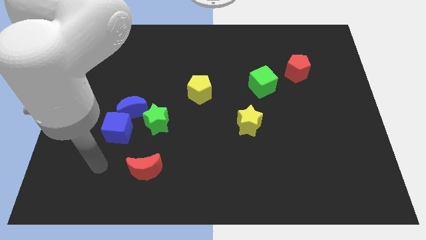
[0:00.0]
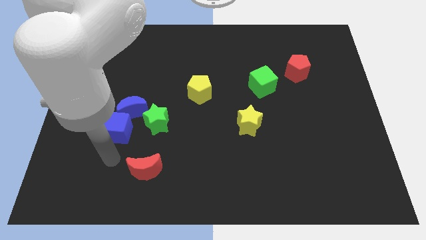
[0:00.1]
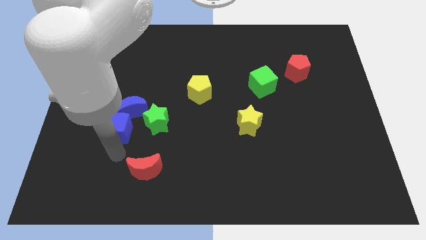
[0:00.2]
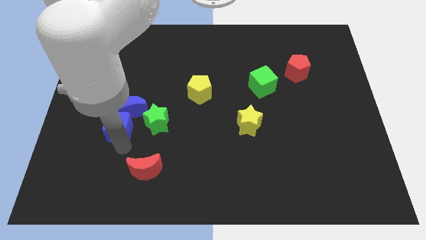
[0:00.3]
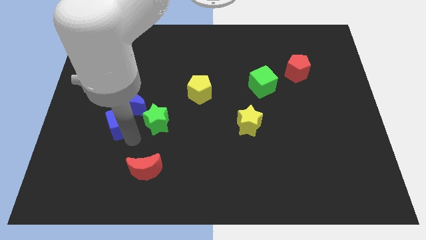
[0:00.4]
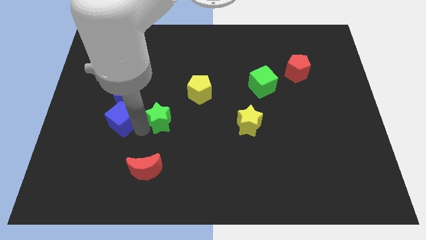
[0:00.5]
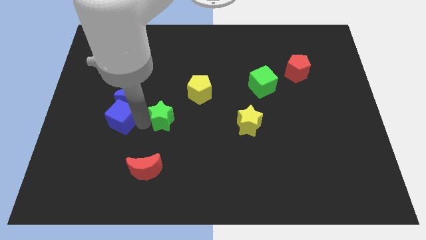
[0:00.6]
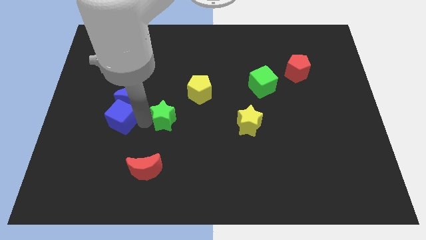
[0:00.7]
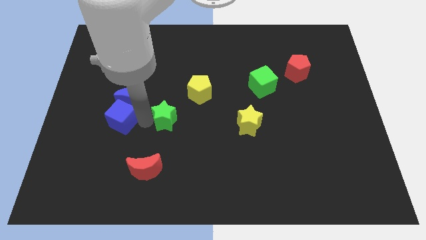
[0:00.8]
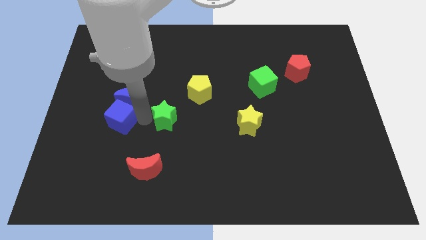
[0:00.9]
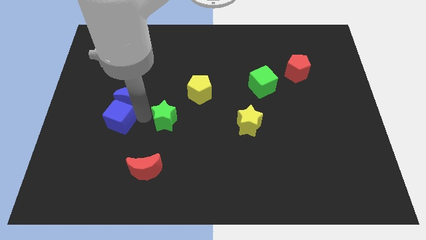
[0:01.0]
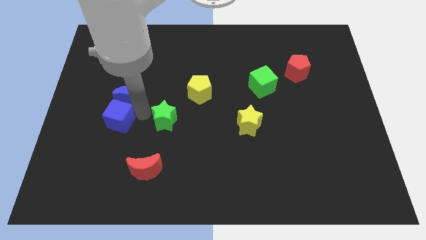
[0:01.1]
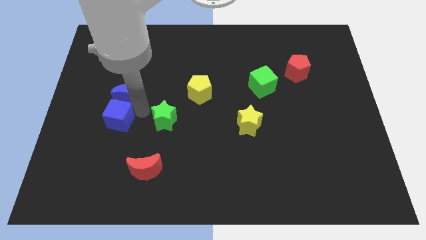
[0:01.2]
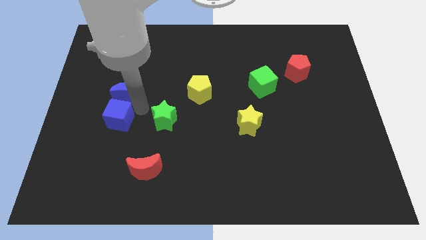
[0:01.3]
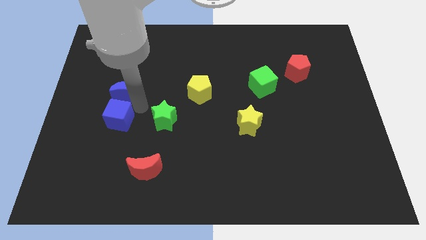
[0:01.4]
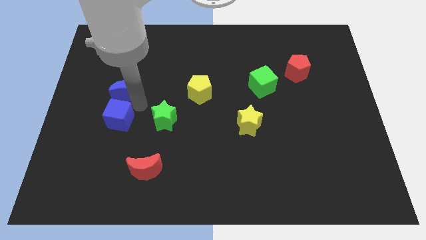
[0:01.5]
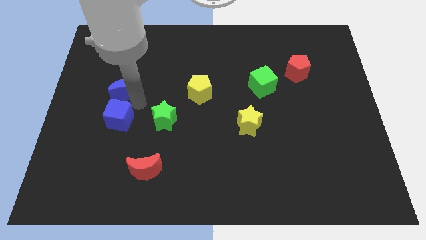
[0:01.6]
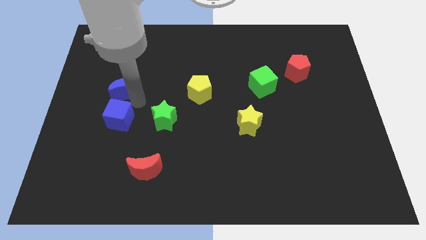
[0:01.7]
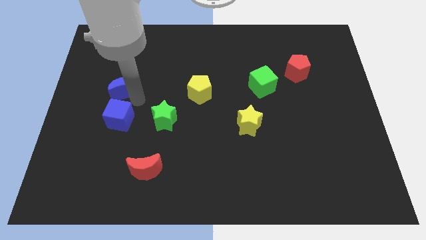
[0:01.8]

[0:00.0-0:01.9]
pull the blue moon apart from the blue cube and green star

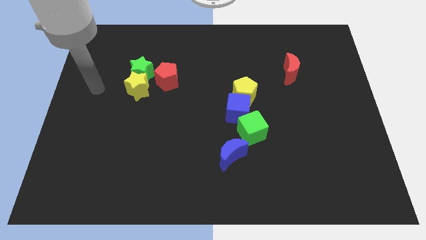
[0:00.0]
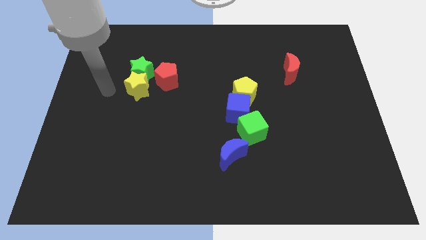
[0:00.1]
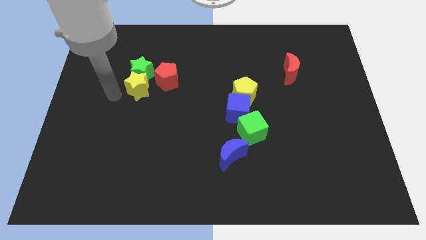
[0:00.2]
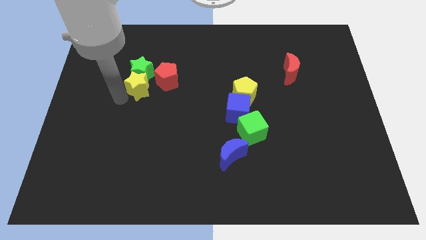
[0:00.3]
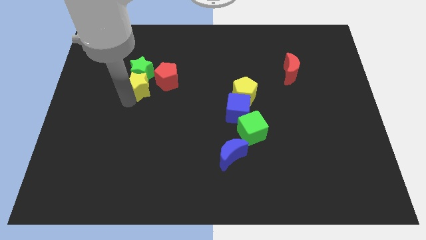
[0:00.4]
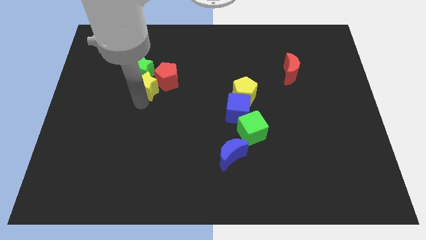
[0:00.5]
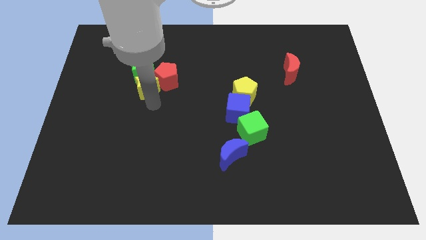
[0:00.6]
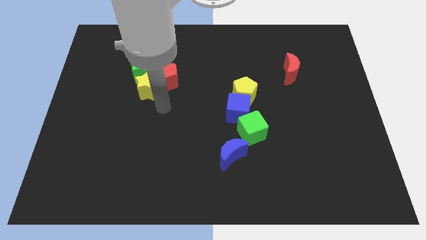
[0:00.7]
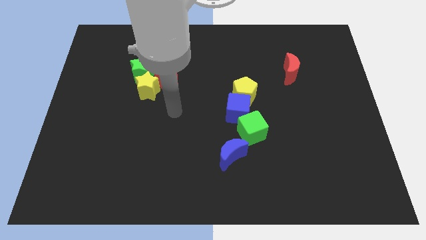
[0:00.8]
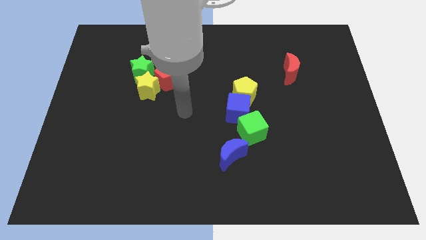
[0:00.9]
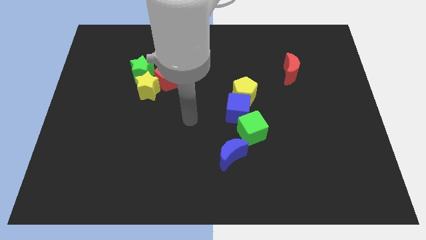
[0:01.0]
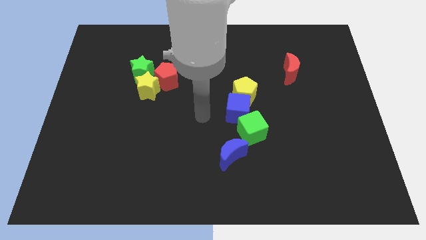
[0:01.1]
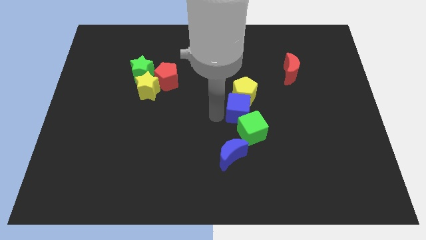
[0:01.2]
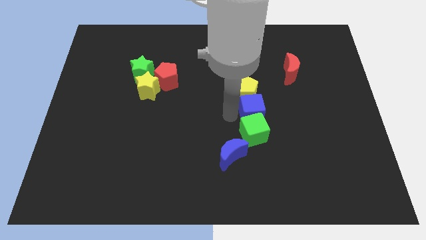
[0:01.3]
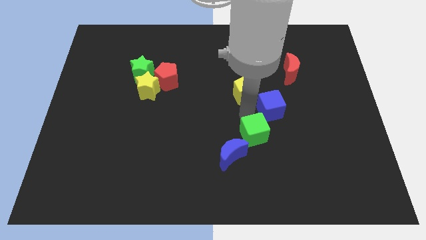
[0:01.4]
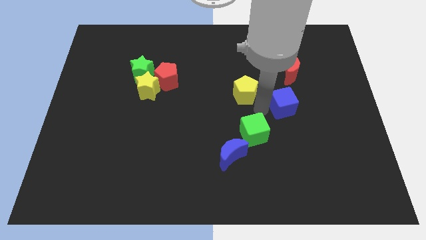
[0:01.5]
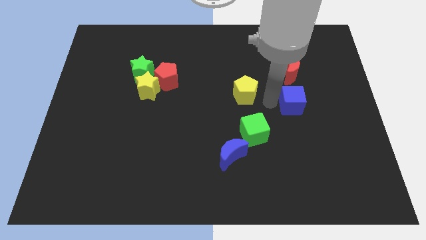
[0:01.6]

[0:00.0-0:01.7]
move the yellow pentagon away from the blue cube

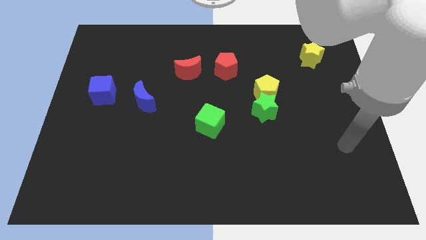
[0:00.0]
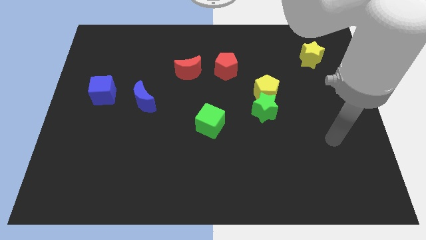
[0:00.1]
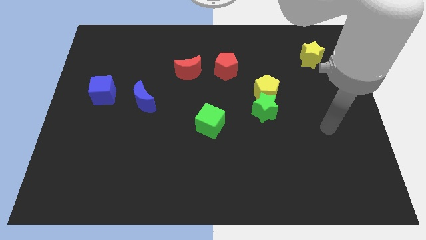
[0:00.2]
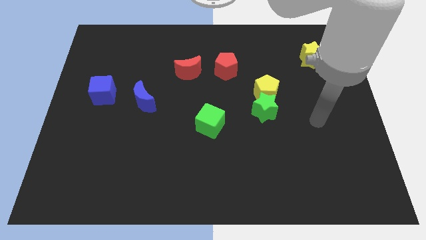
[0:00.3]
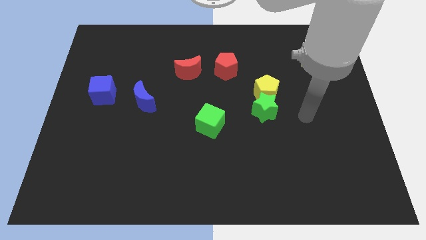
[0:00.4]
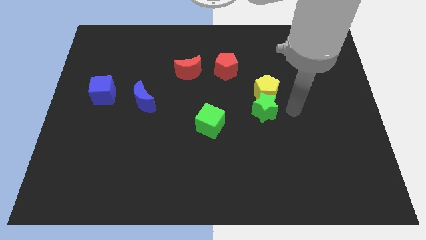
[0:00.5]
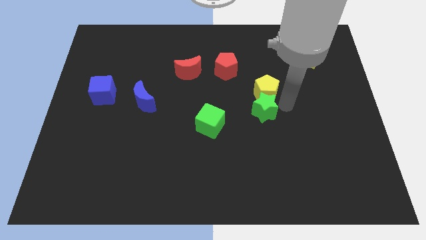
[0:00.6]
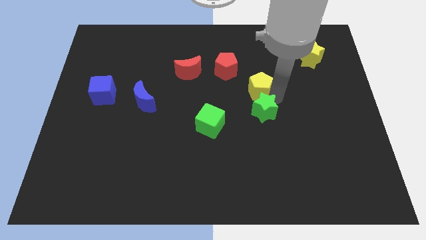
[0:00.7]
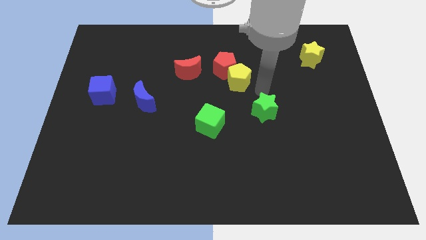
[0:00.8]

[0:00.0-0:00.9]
move the green star away from the yellow pentagon

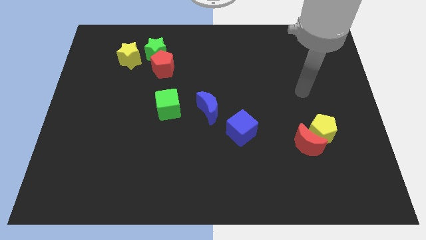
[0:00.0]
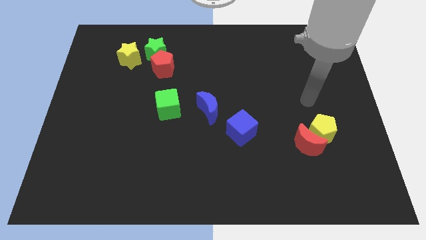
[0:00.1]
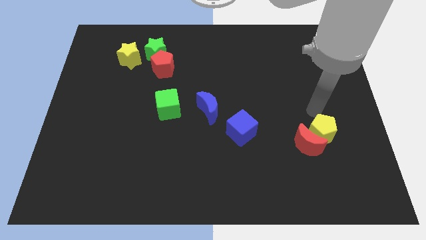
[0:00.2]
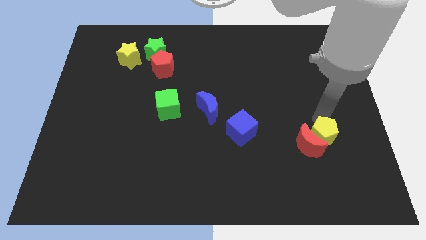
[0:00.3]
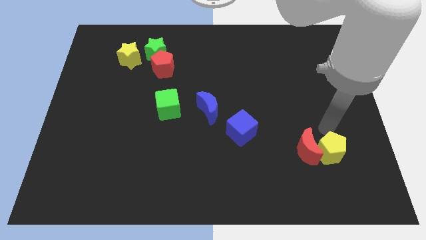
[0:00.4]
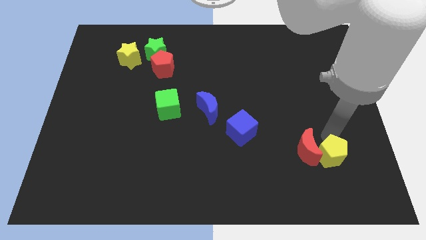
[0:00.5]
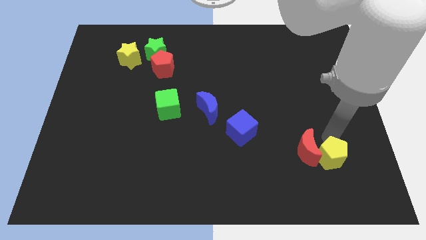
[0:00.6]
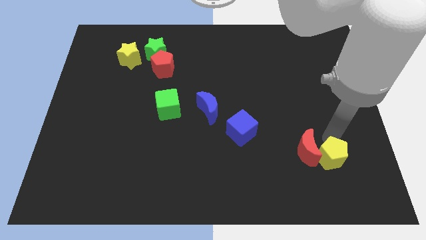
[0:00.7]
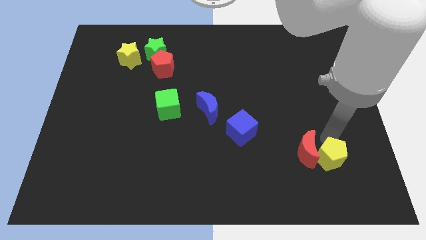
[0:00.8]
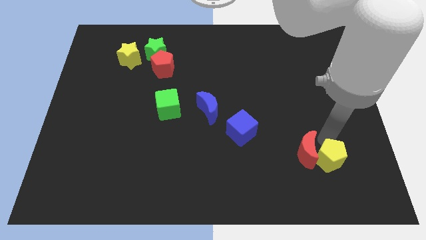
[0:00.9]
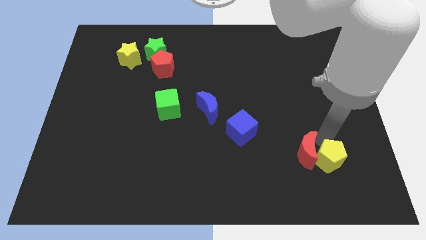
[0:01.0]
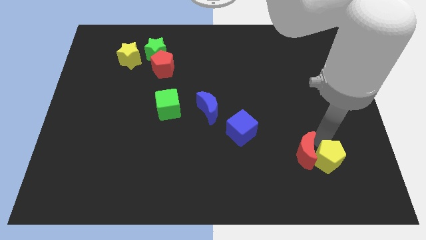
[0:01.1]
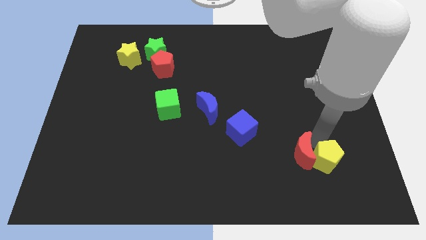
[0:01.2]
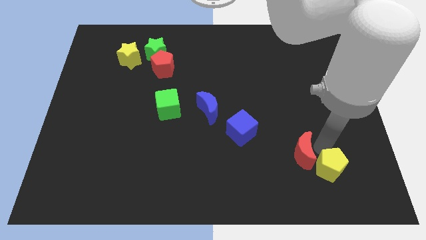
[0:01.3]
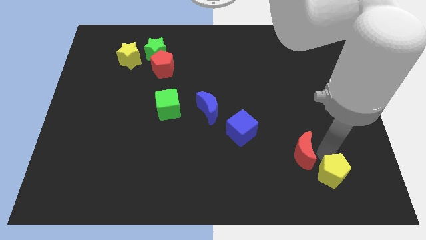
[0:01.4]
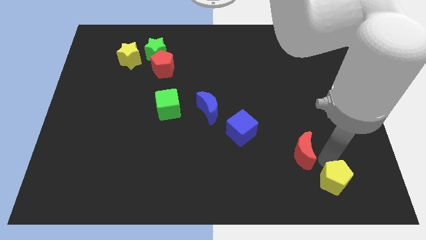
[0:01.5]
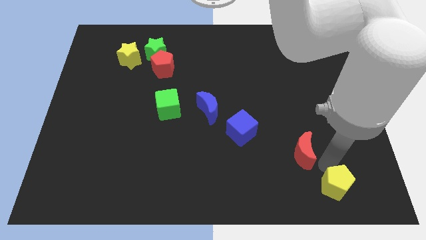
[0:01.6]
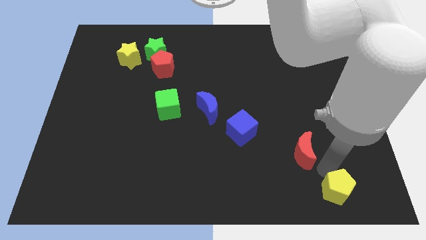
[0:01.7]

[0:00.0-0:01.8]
pull the red moon apart from the yellow pentagon

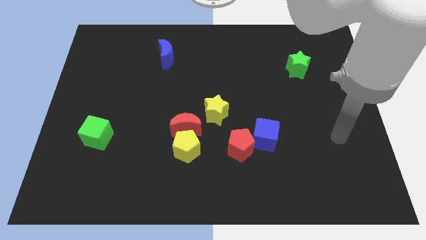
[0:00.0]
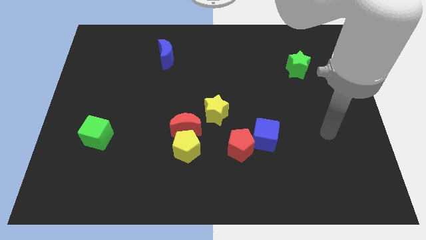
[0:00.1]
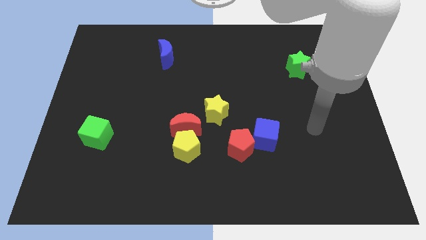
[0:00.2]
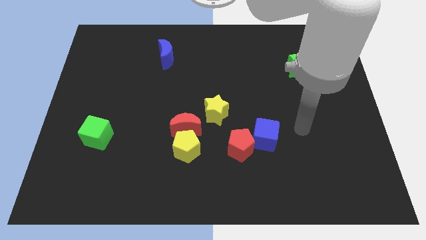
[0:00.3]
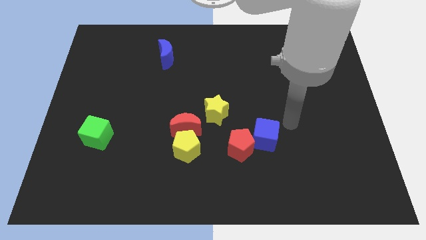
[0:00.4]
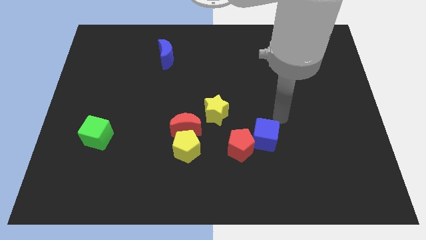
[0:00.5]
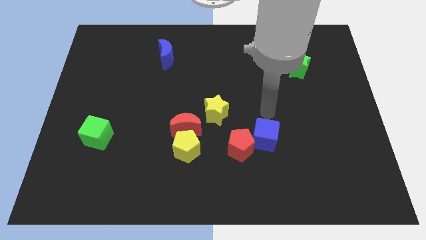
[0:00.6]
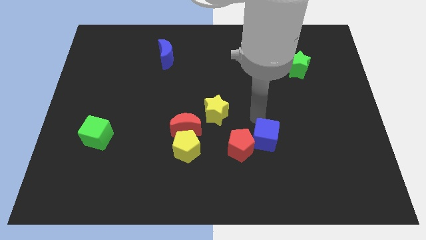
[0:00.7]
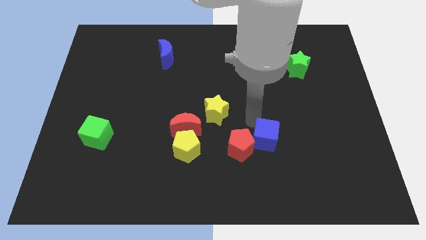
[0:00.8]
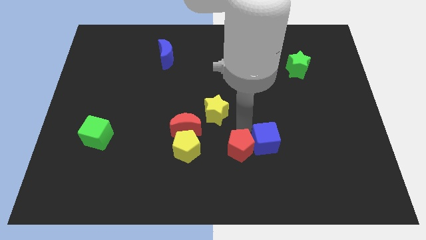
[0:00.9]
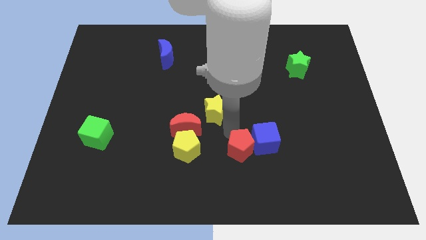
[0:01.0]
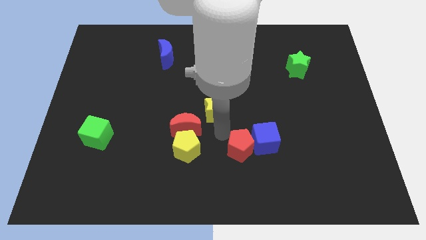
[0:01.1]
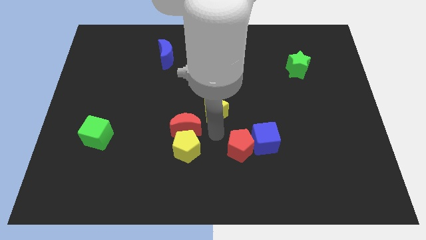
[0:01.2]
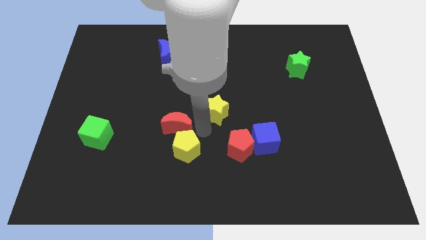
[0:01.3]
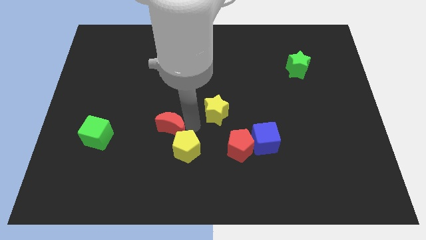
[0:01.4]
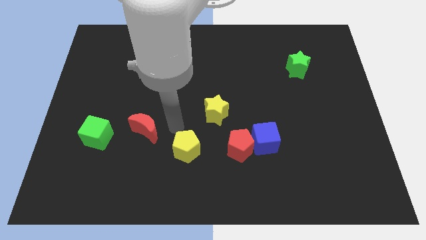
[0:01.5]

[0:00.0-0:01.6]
pull the yellow pentagon apart from the red moon

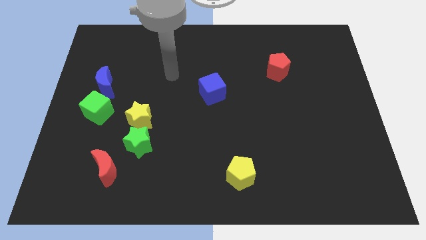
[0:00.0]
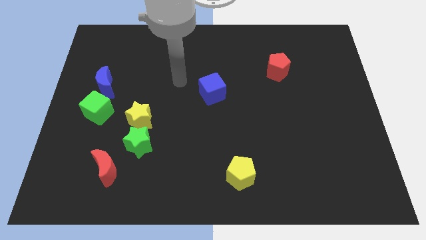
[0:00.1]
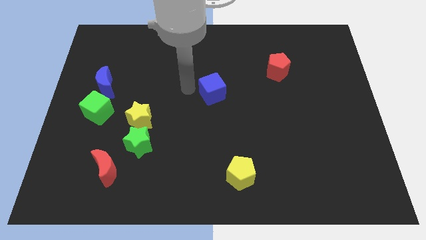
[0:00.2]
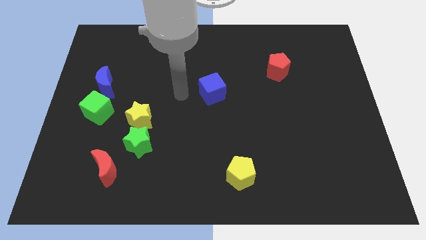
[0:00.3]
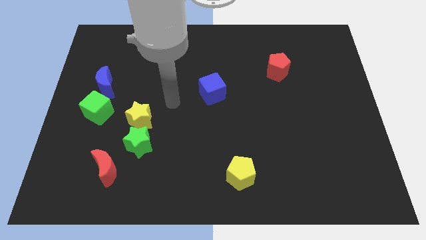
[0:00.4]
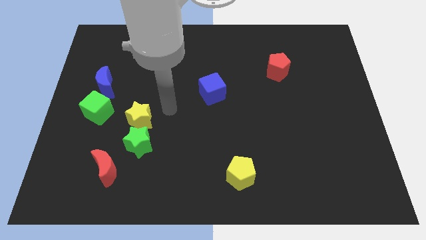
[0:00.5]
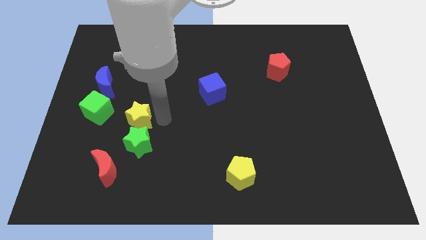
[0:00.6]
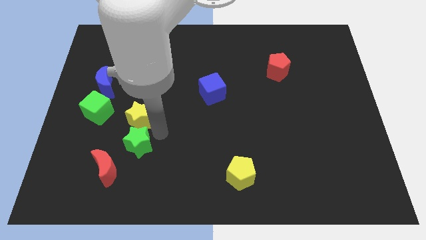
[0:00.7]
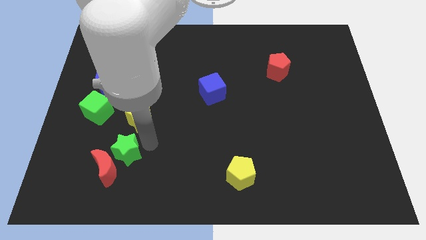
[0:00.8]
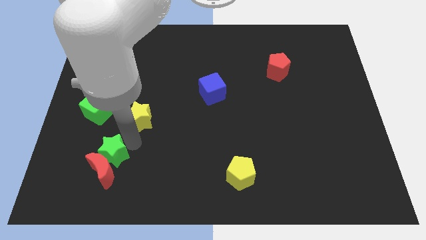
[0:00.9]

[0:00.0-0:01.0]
pull the yellow star apart from the green star

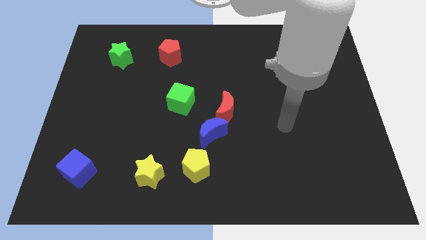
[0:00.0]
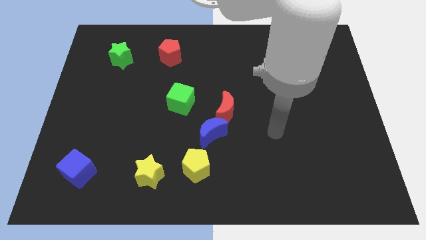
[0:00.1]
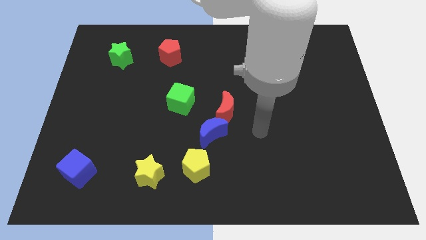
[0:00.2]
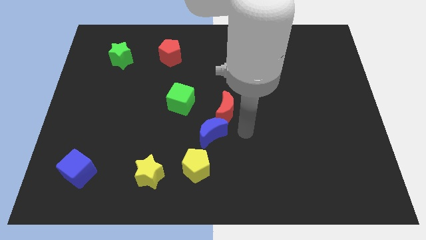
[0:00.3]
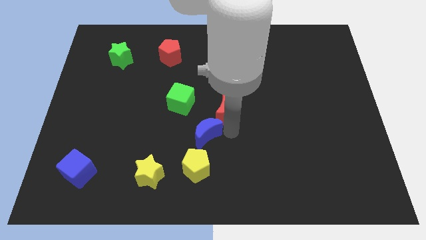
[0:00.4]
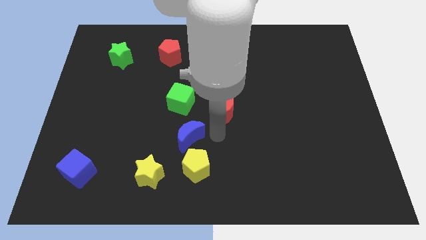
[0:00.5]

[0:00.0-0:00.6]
separate the red moon from the blue moon
